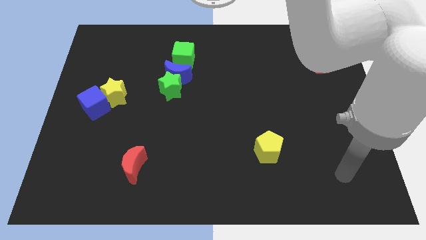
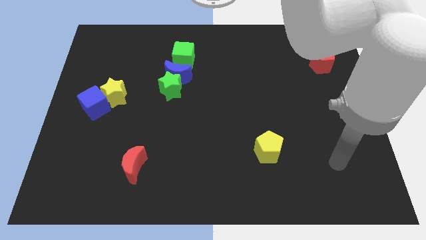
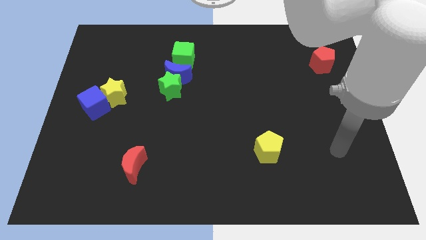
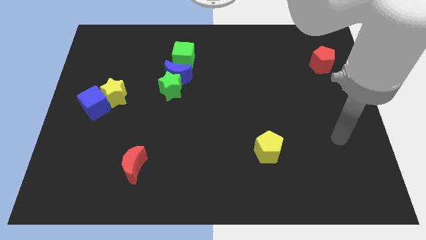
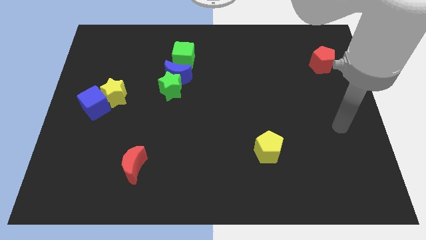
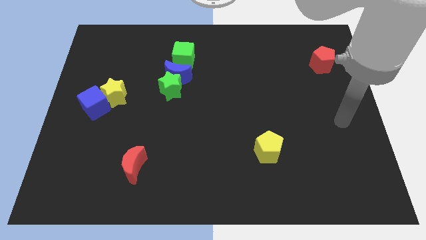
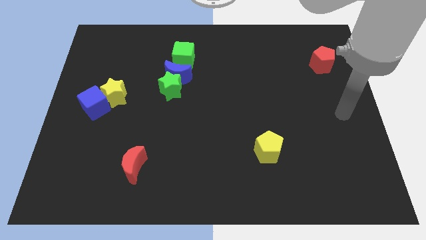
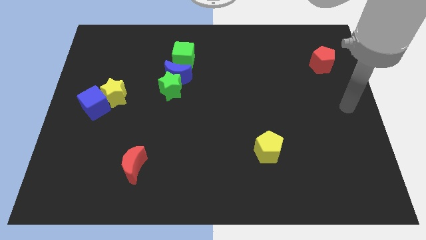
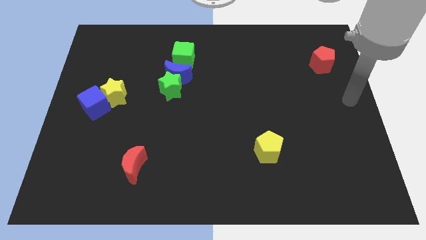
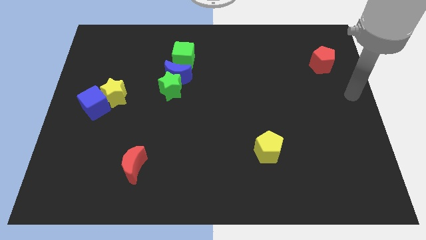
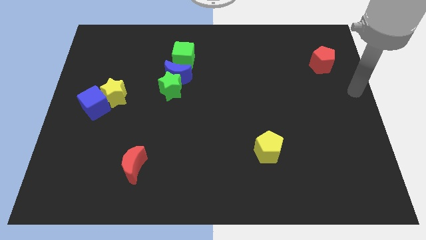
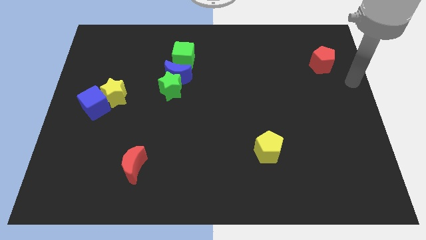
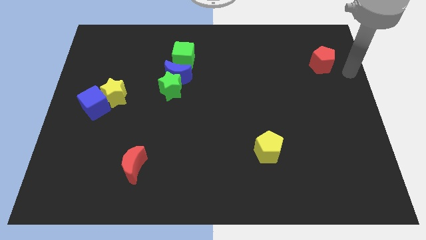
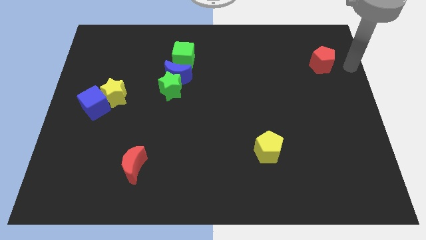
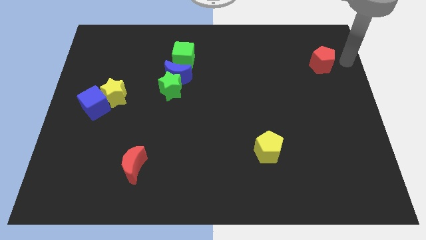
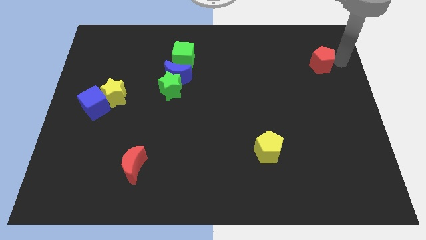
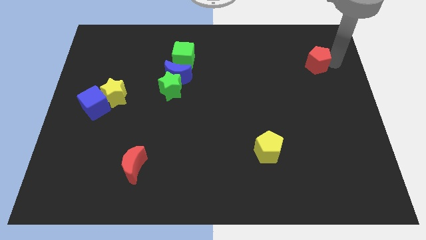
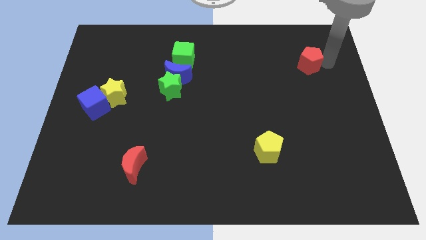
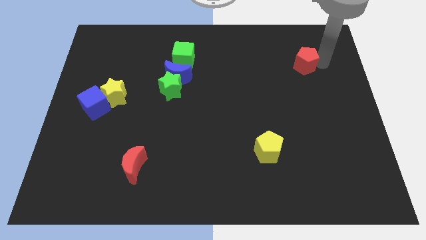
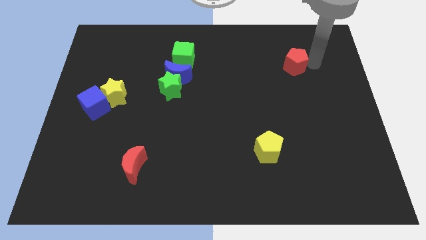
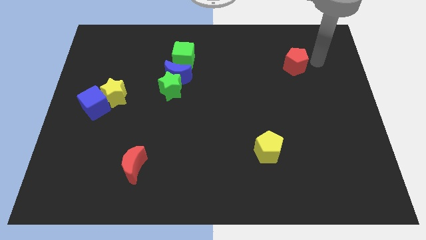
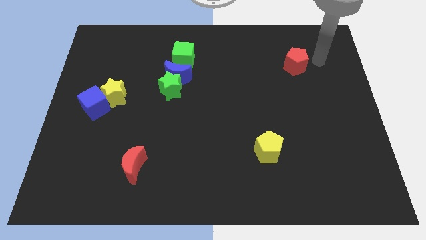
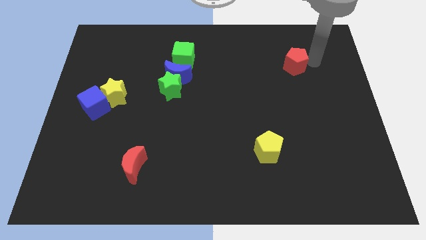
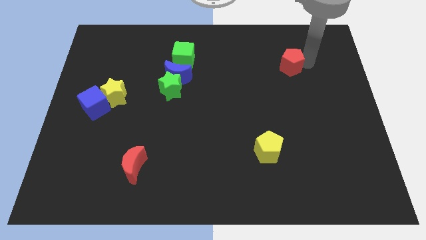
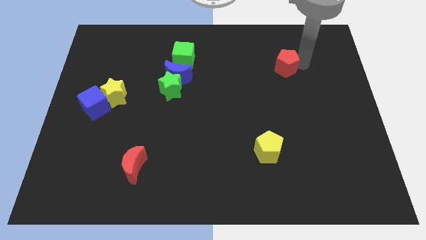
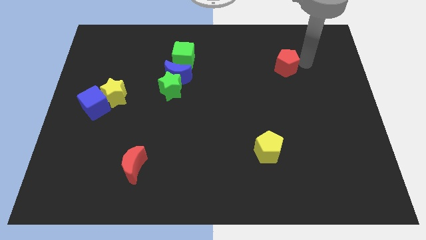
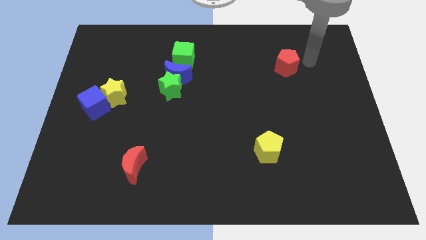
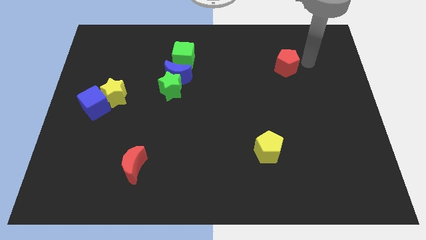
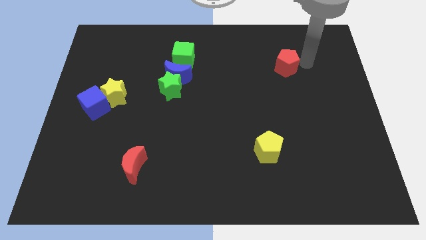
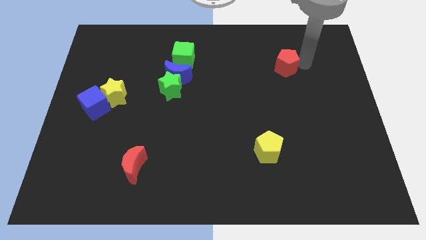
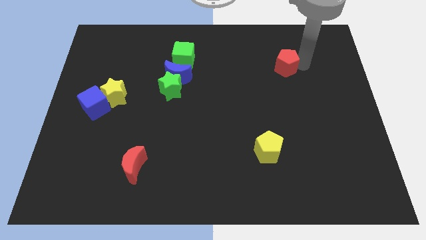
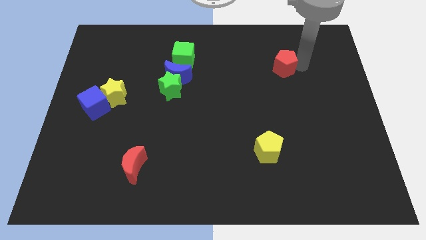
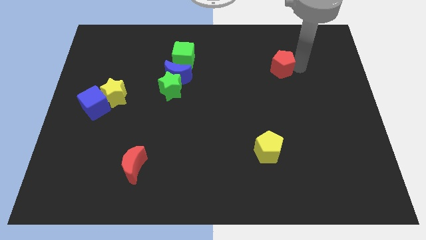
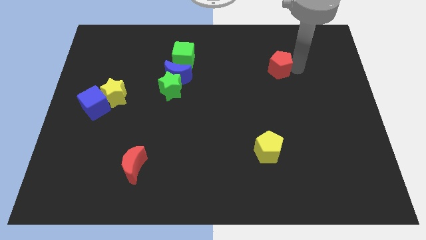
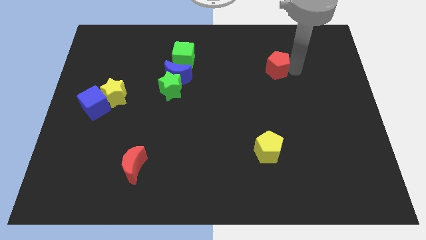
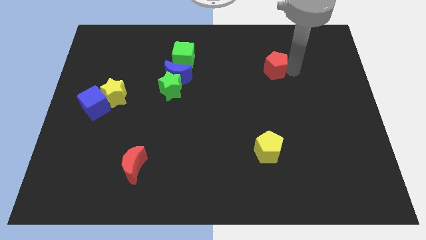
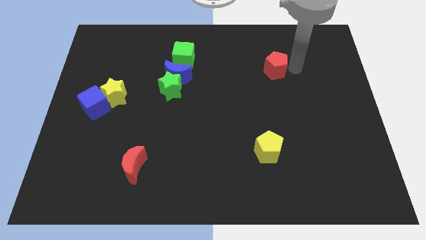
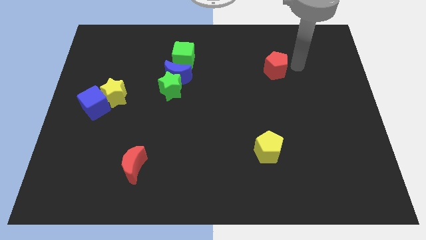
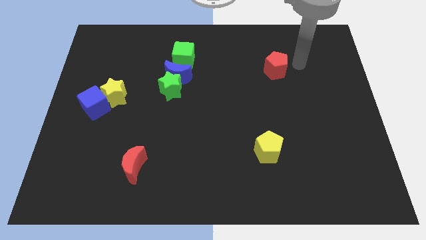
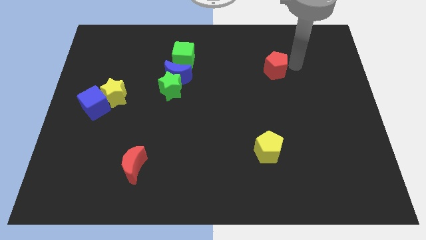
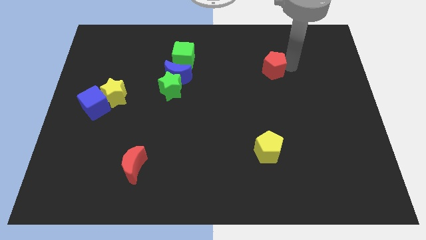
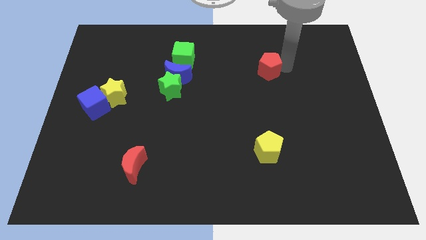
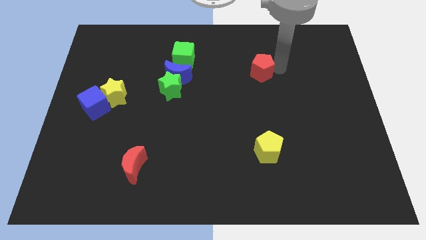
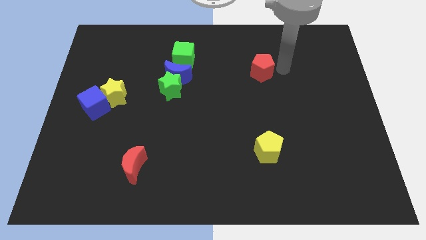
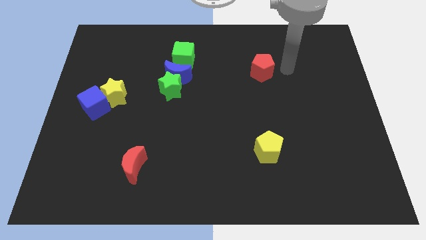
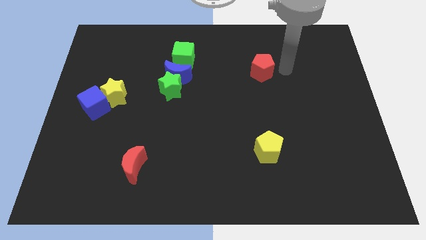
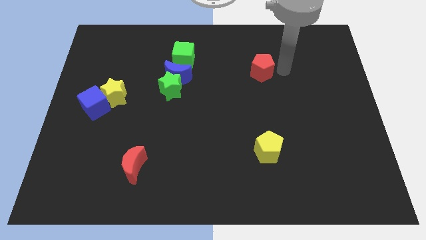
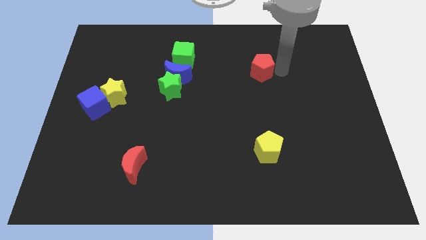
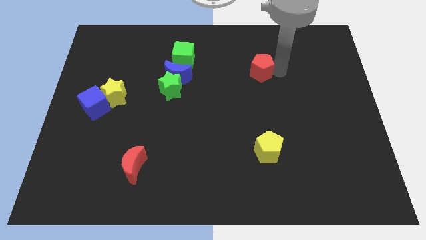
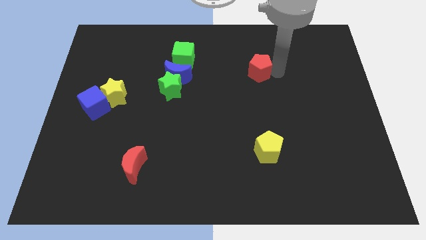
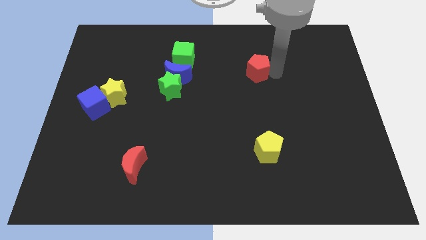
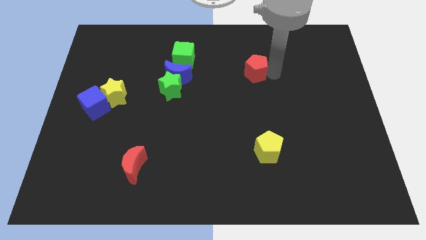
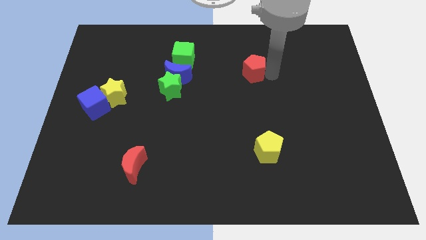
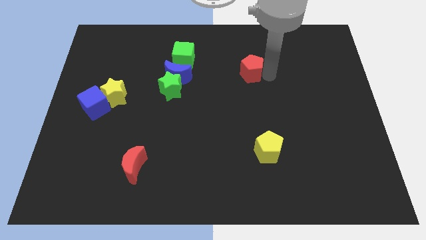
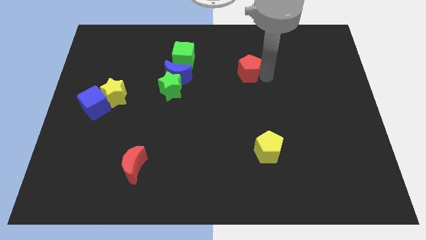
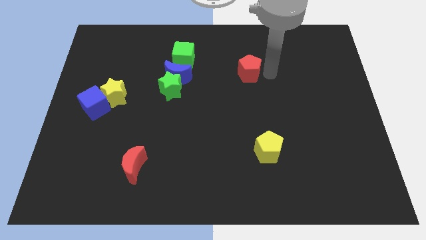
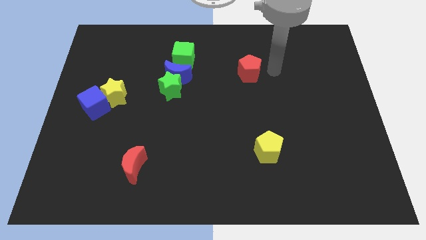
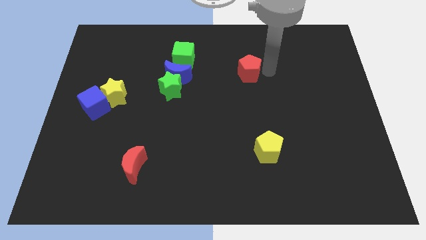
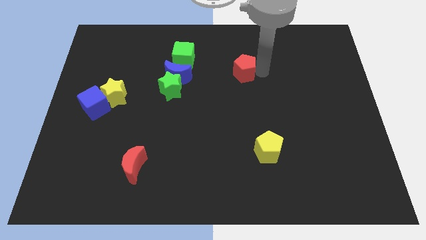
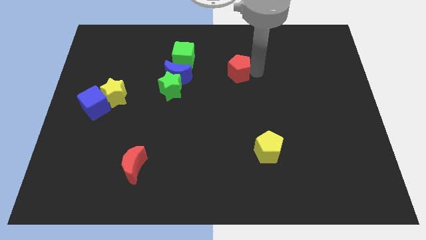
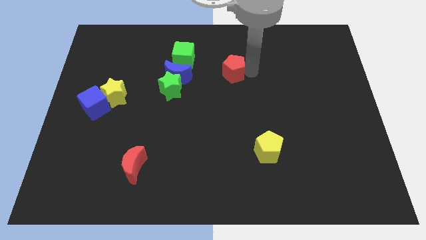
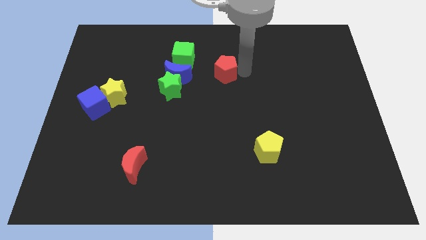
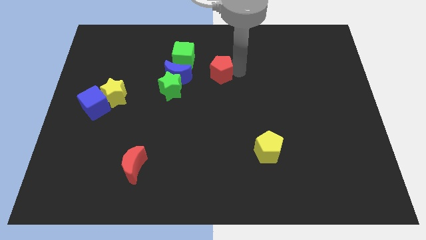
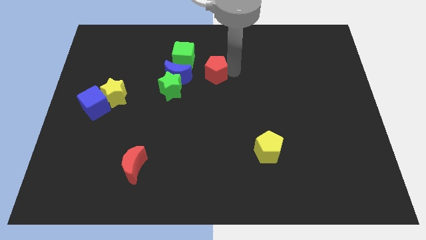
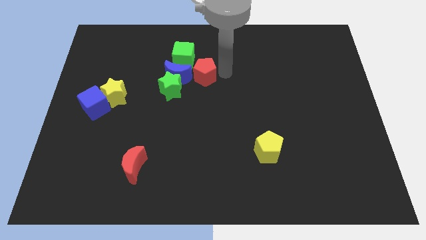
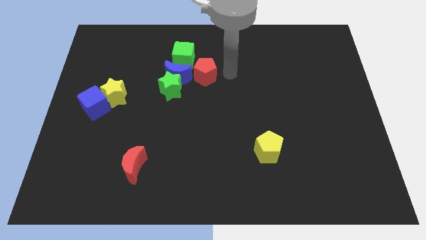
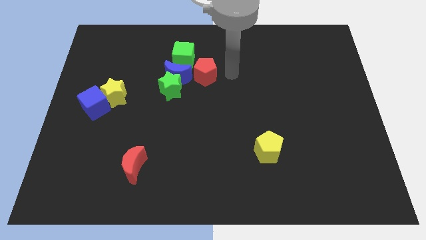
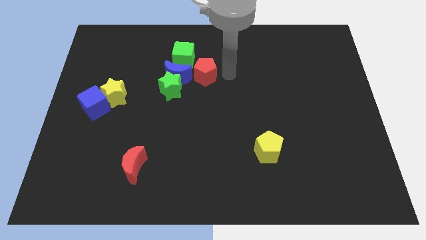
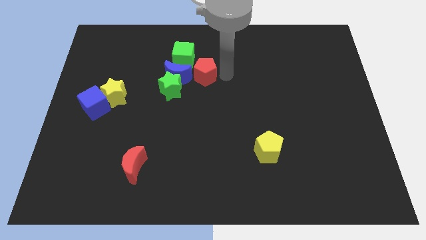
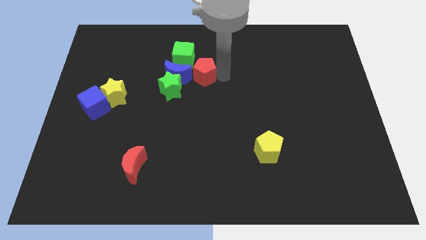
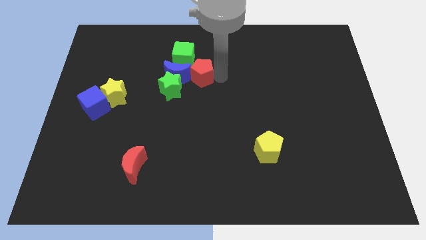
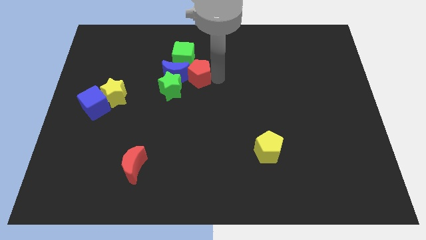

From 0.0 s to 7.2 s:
slide the red pentagon towards the blue moon
